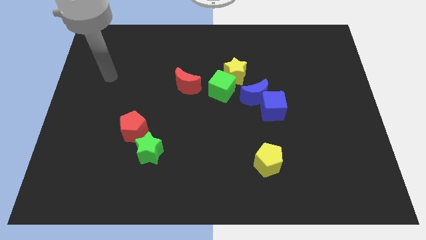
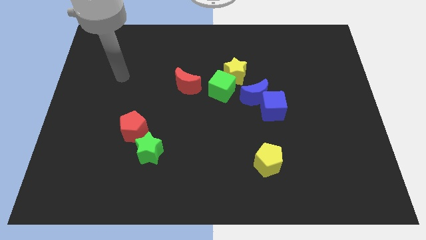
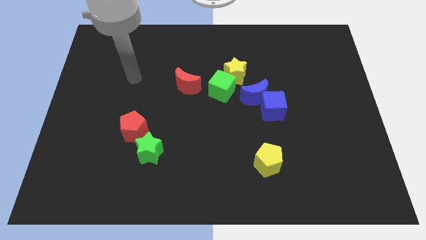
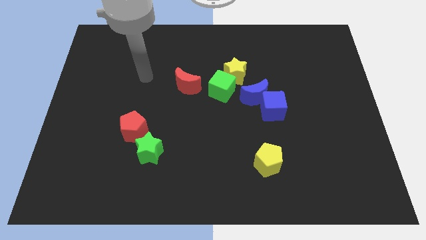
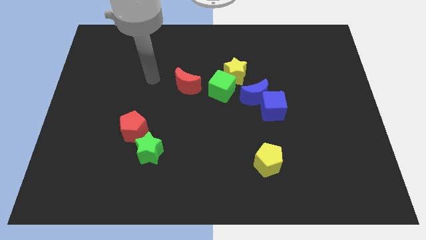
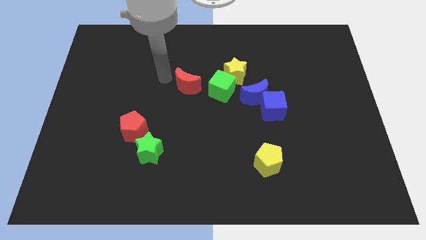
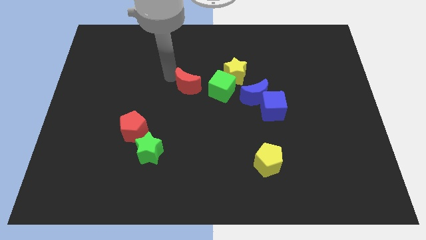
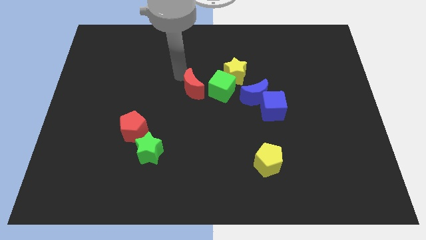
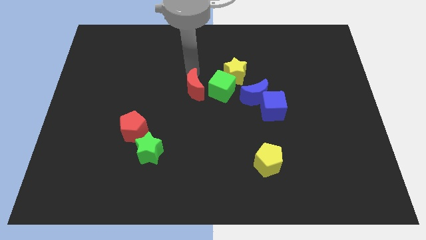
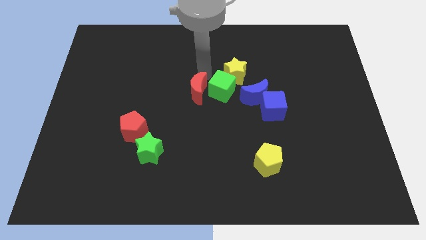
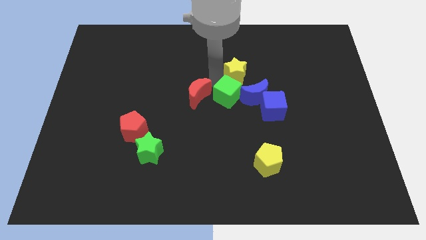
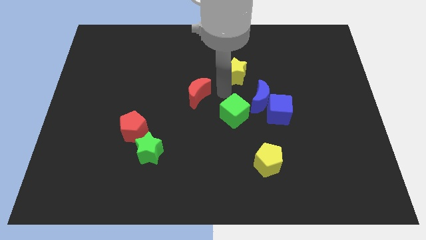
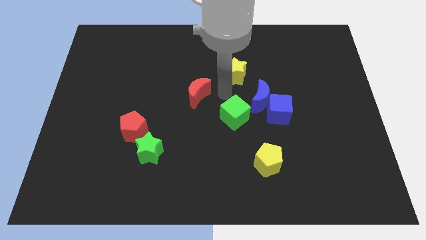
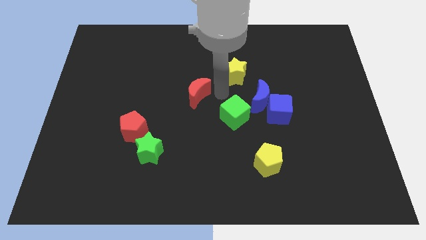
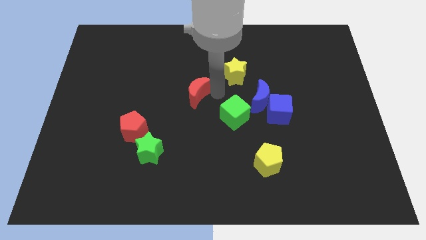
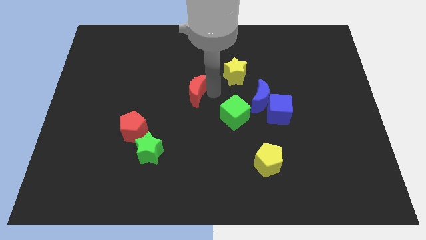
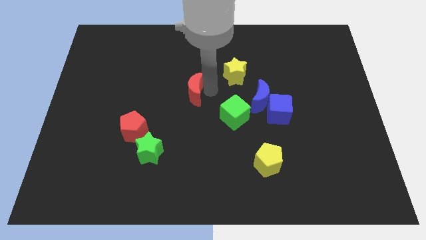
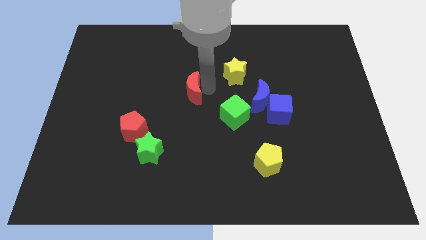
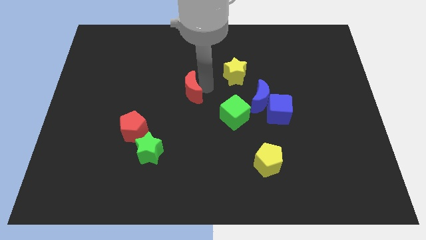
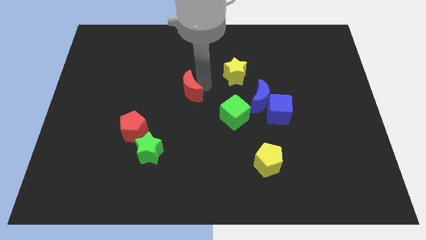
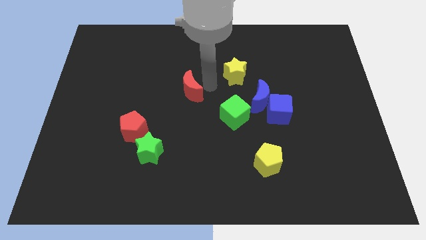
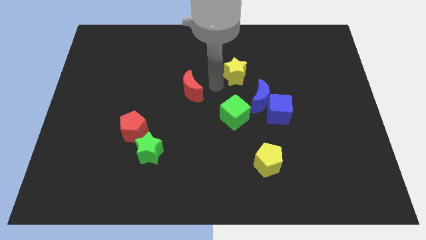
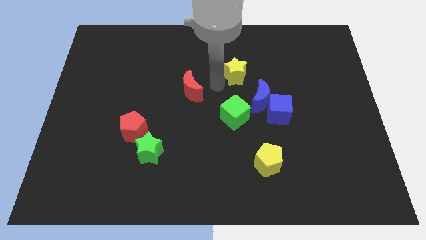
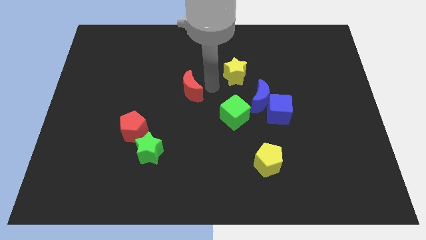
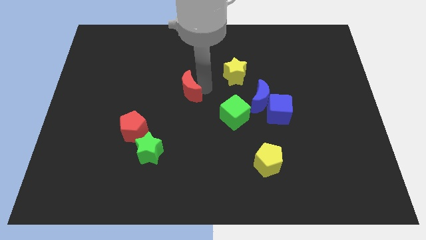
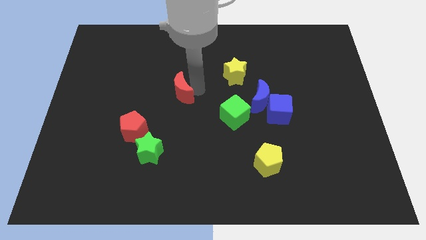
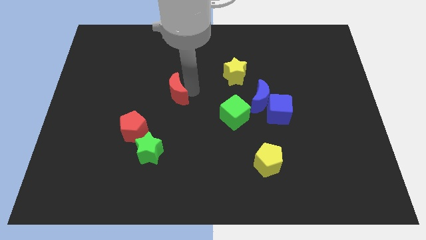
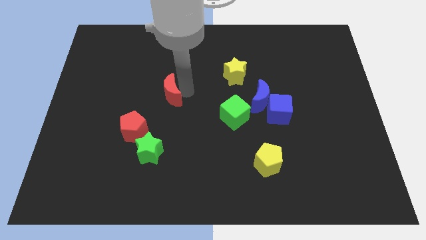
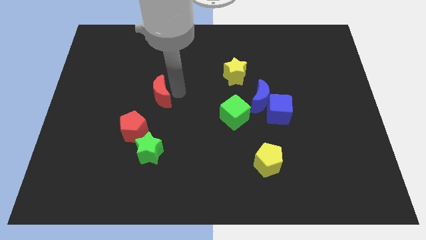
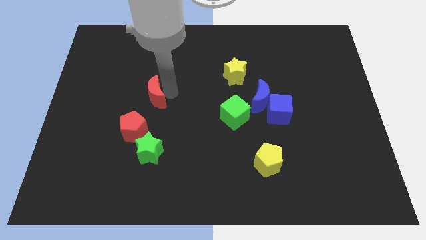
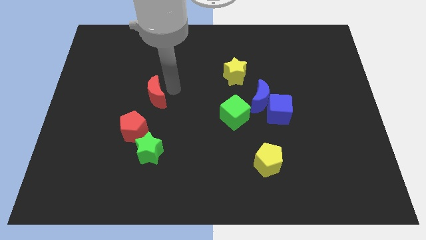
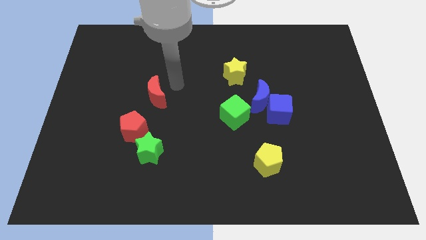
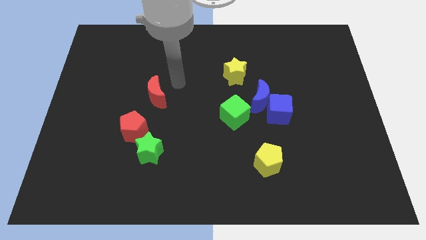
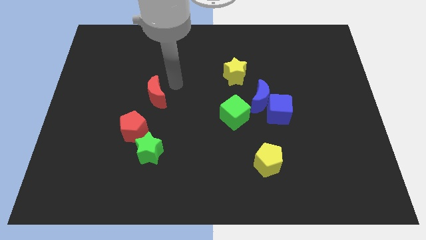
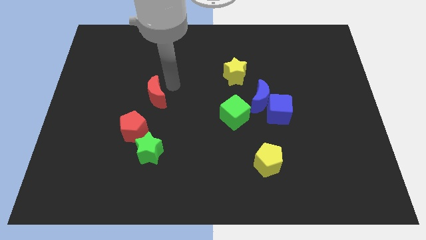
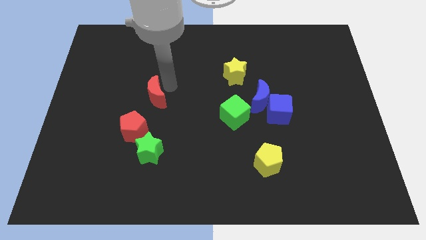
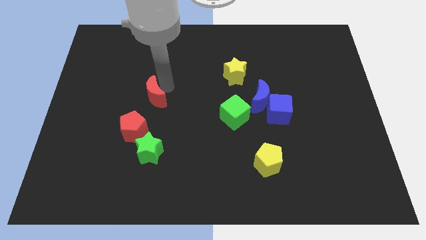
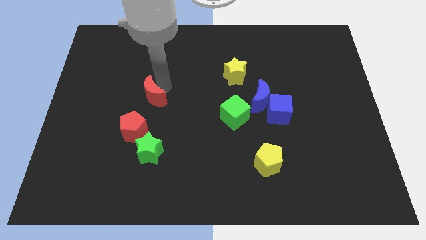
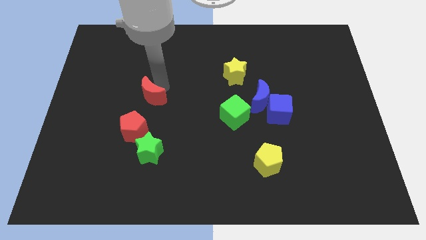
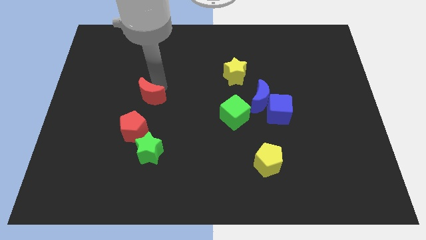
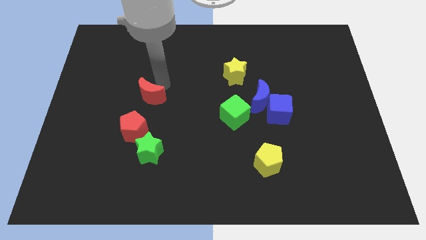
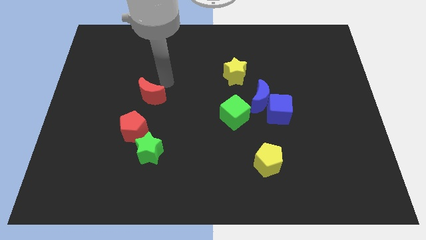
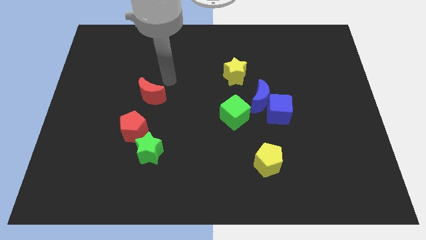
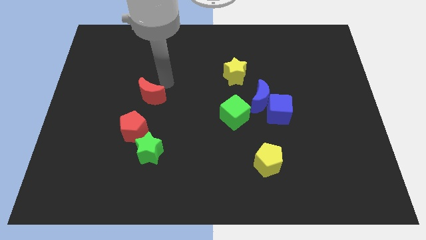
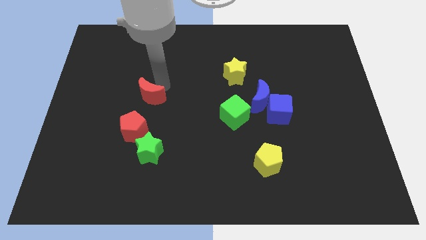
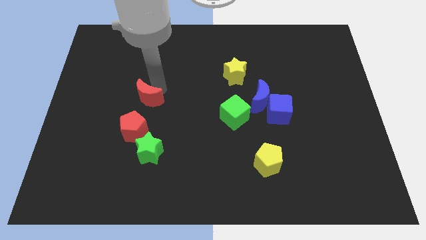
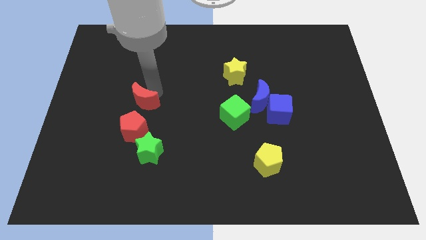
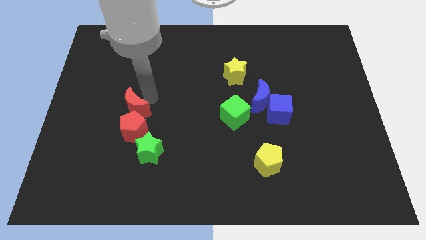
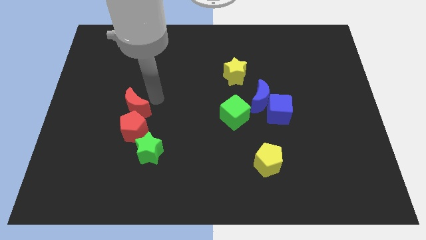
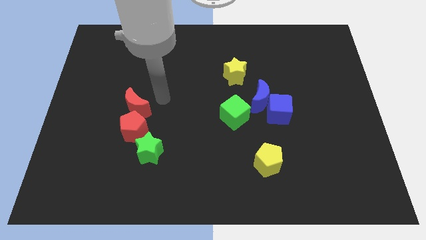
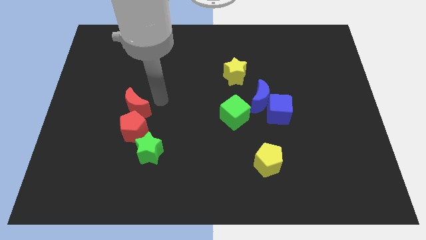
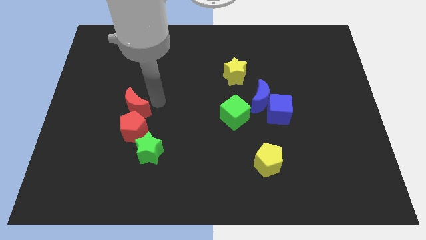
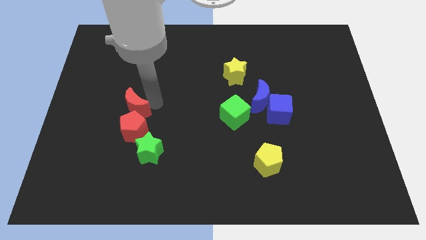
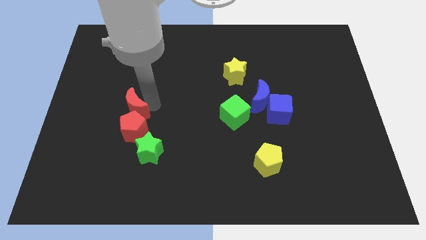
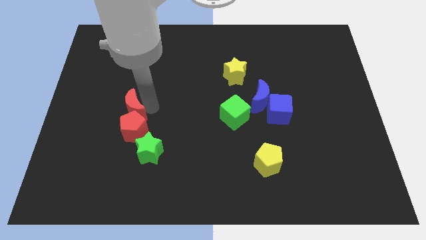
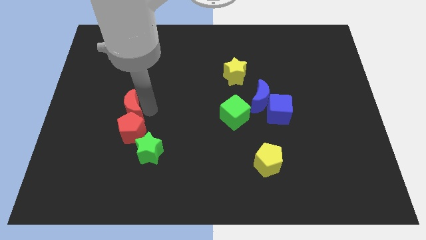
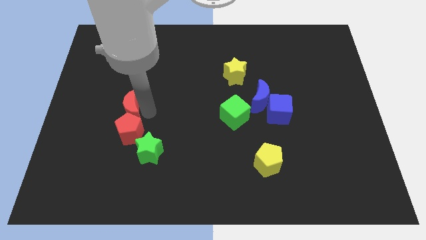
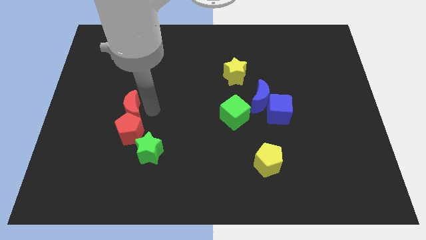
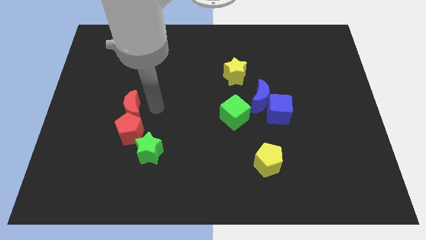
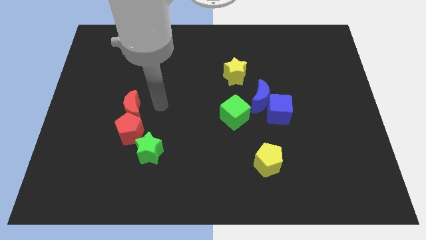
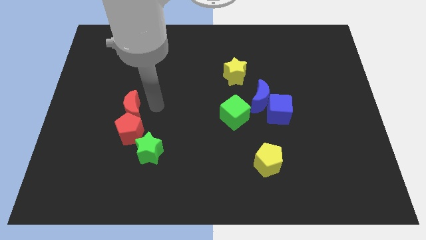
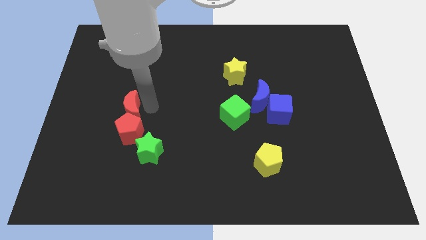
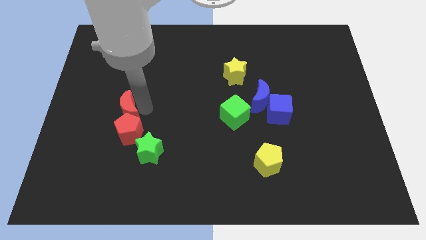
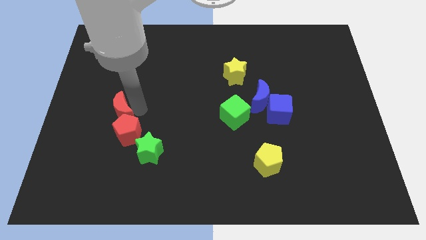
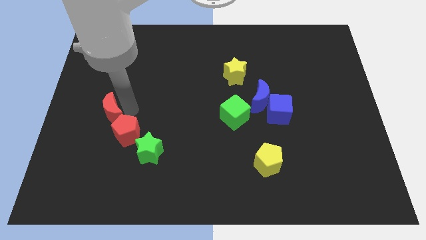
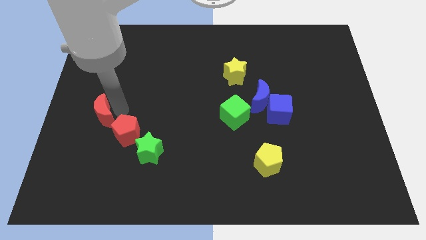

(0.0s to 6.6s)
slide the red moon just left of the red pentagon
